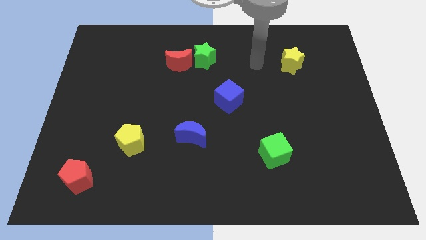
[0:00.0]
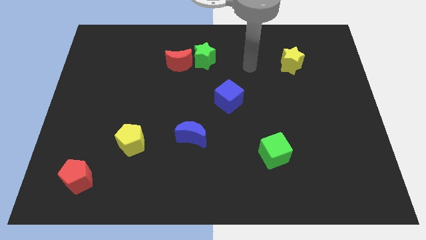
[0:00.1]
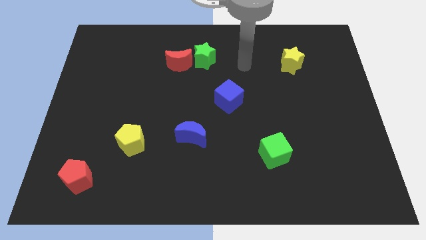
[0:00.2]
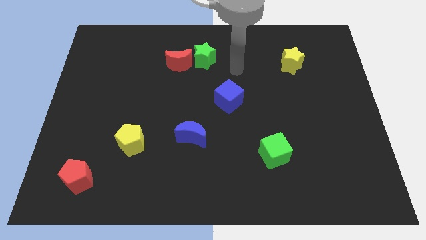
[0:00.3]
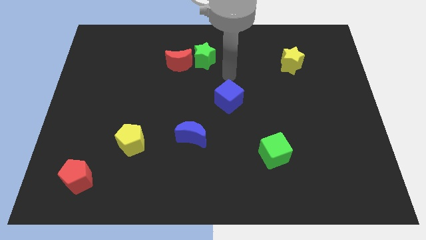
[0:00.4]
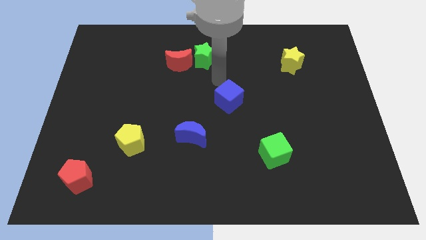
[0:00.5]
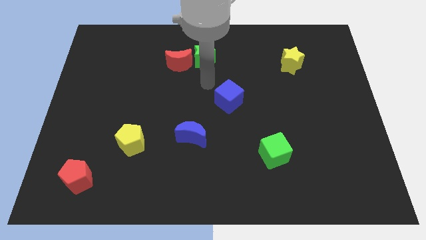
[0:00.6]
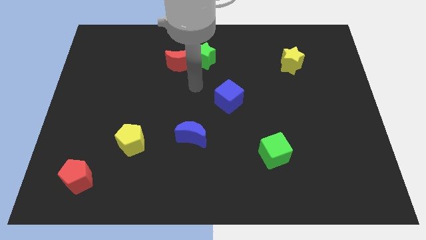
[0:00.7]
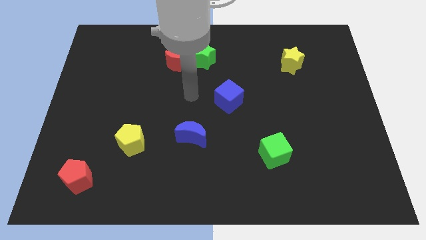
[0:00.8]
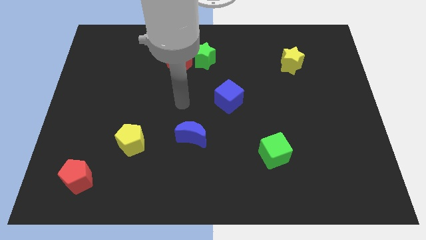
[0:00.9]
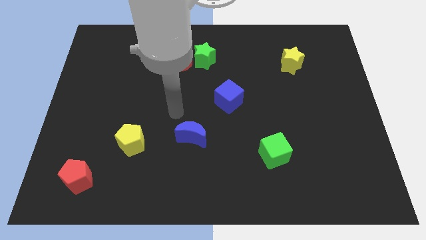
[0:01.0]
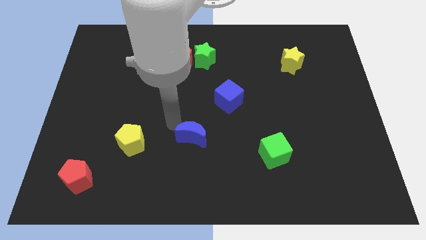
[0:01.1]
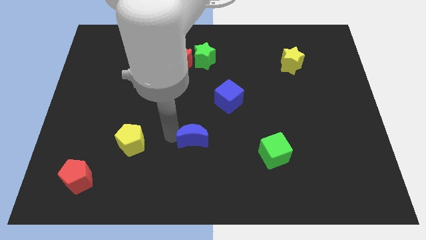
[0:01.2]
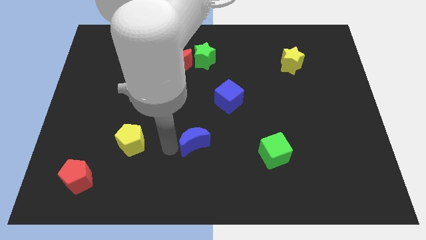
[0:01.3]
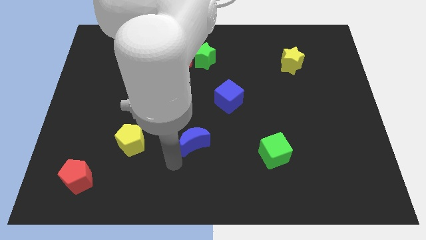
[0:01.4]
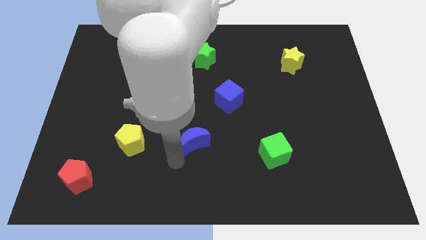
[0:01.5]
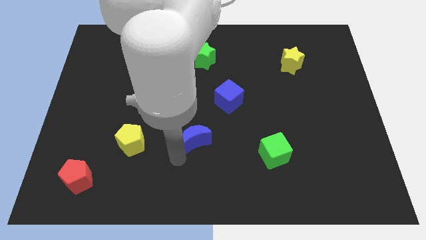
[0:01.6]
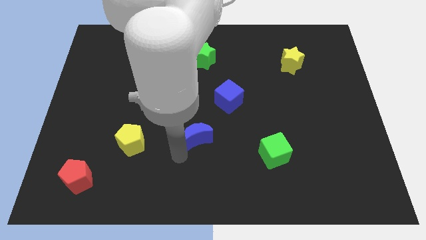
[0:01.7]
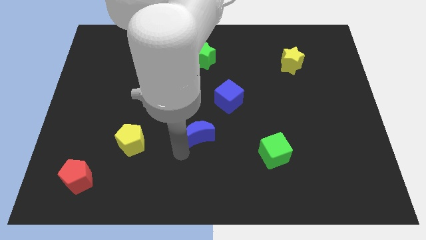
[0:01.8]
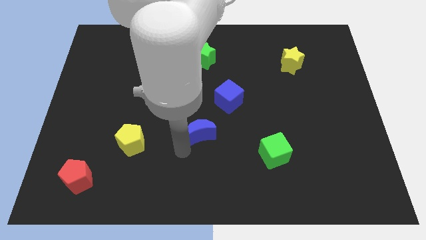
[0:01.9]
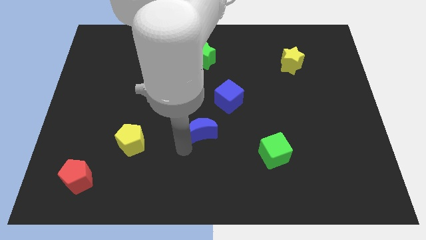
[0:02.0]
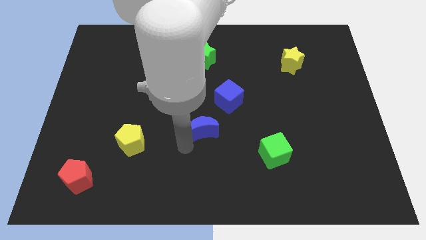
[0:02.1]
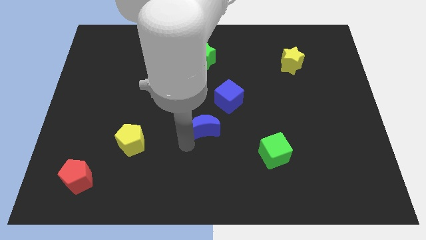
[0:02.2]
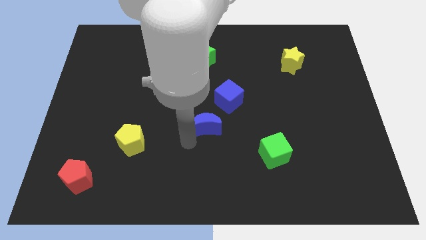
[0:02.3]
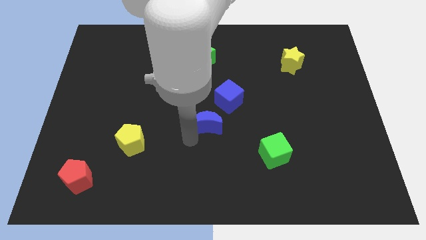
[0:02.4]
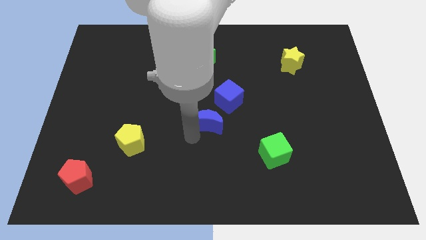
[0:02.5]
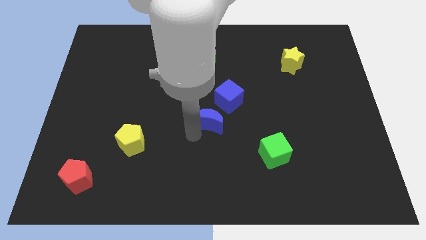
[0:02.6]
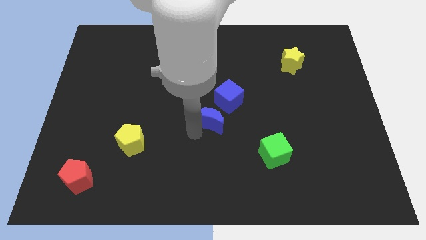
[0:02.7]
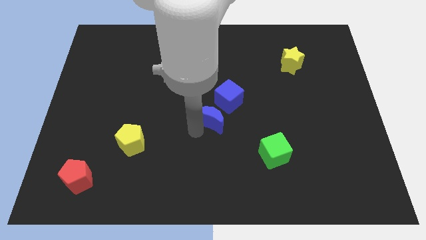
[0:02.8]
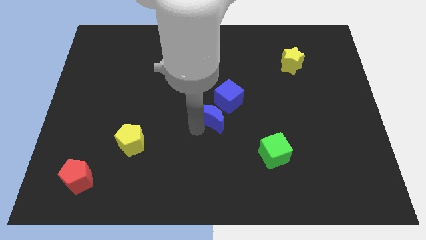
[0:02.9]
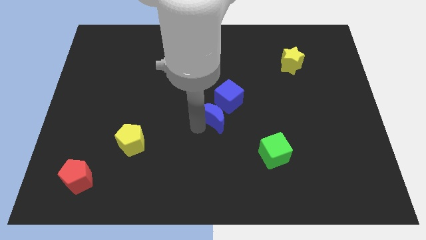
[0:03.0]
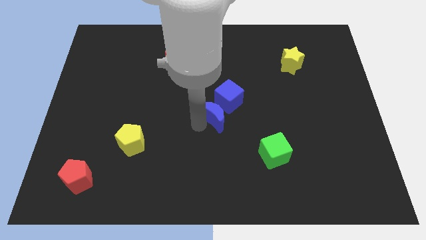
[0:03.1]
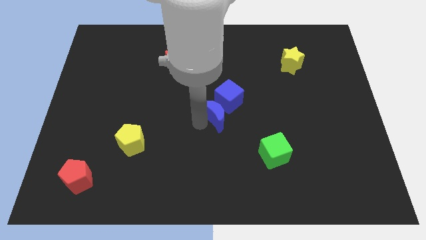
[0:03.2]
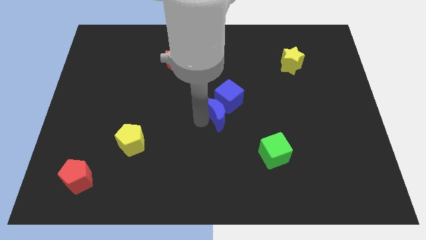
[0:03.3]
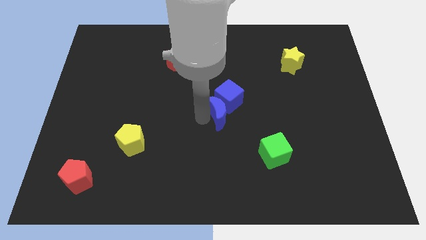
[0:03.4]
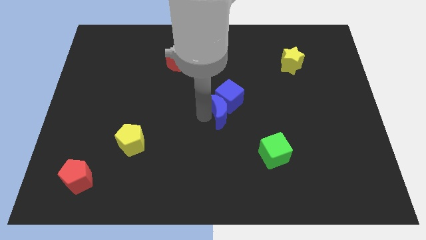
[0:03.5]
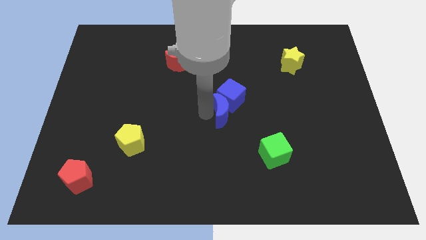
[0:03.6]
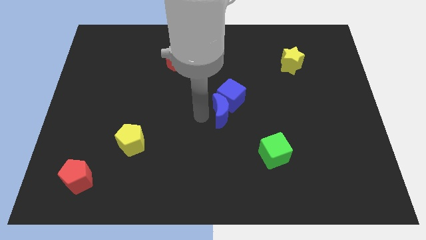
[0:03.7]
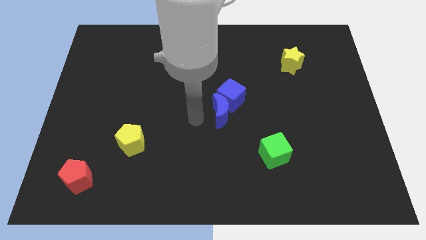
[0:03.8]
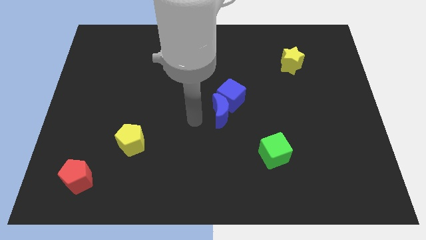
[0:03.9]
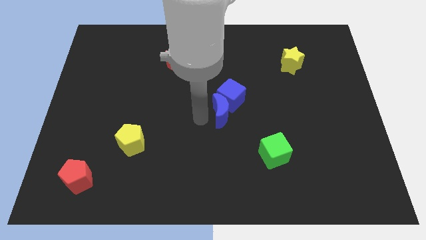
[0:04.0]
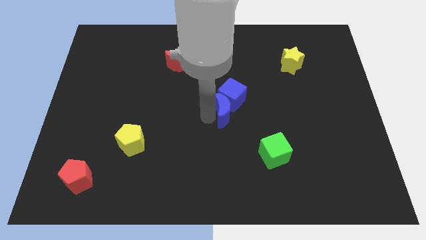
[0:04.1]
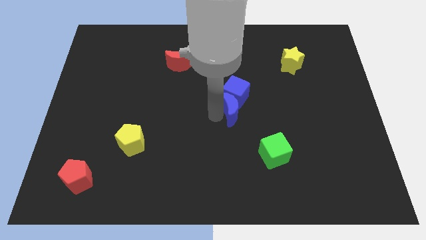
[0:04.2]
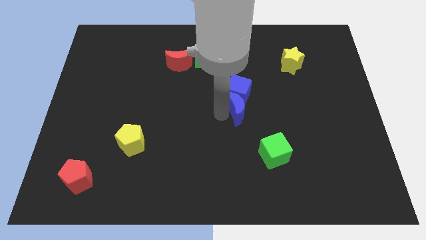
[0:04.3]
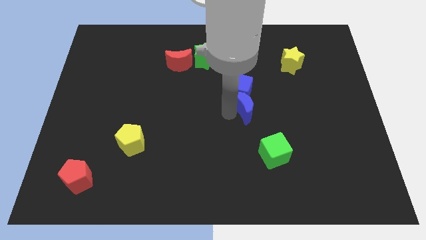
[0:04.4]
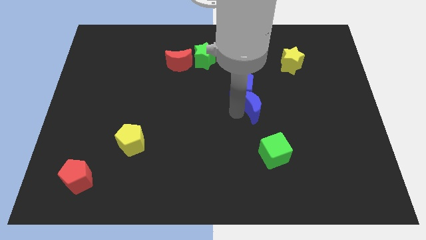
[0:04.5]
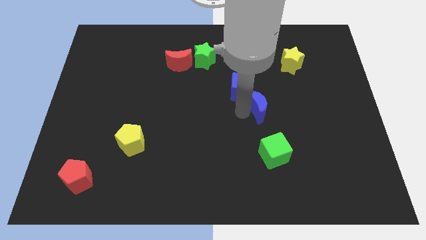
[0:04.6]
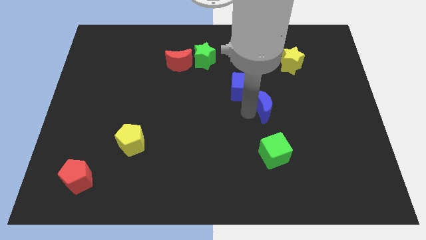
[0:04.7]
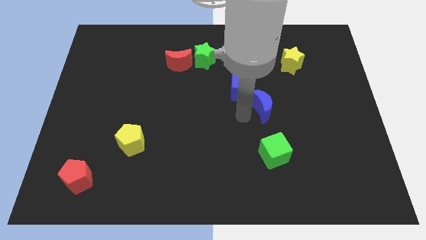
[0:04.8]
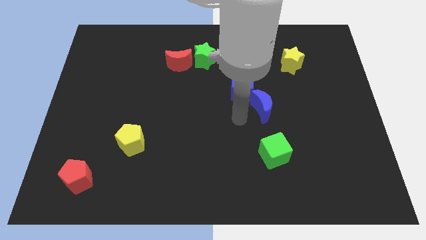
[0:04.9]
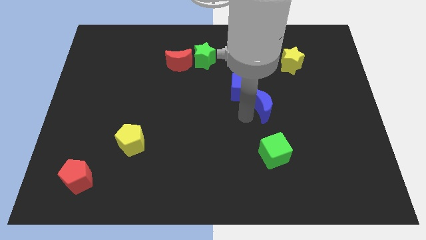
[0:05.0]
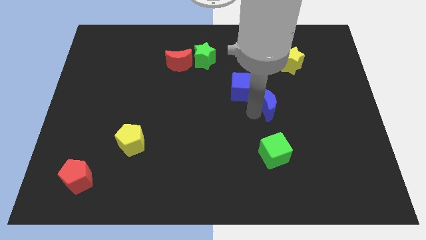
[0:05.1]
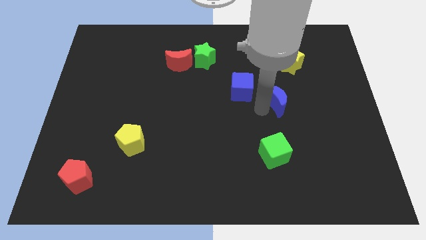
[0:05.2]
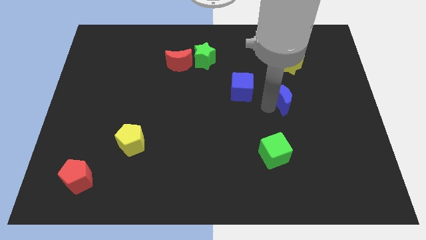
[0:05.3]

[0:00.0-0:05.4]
push the blue moon to the bottom side of the yellow star
